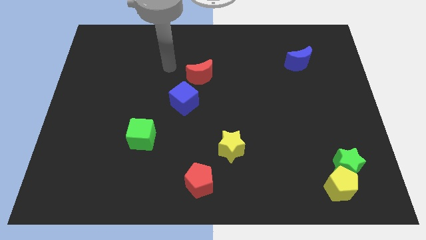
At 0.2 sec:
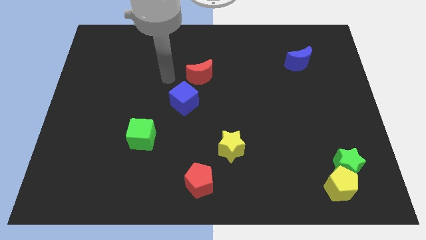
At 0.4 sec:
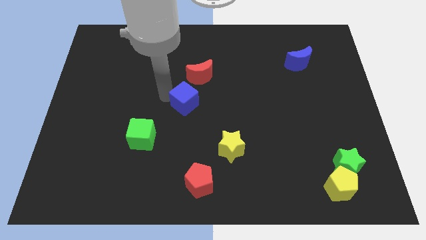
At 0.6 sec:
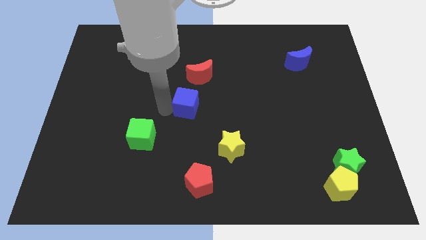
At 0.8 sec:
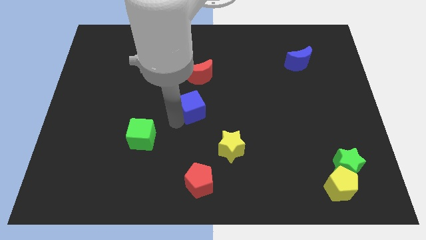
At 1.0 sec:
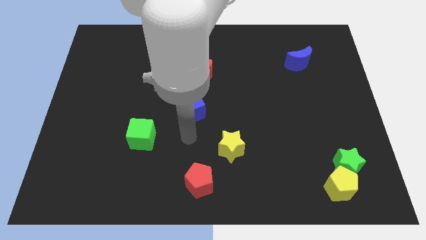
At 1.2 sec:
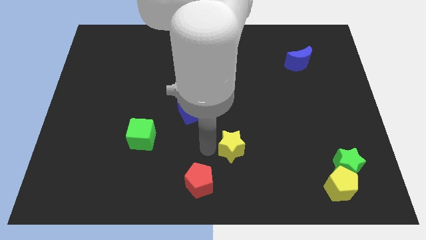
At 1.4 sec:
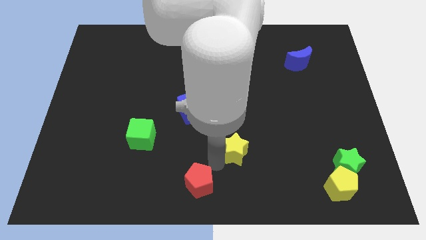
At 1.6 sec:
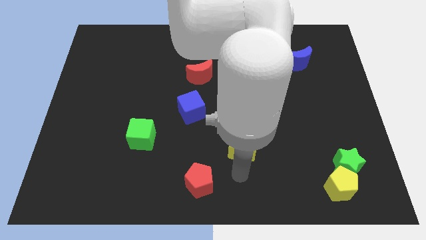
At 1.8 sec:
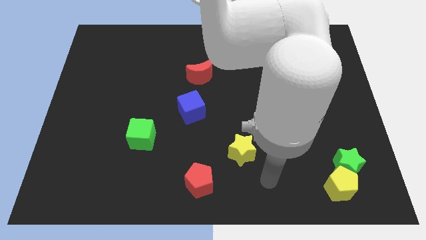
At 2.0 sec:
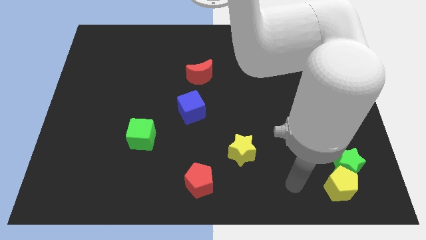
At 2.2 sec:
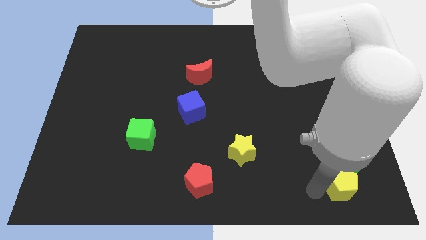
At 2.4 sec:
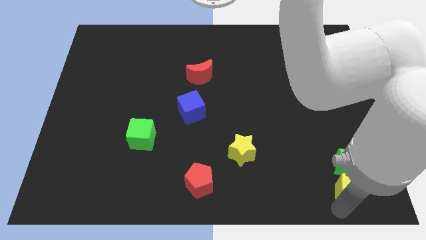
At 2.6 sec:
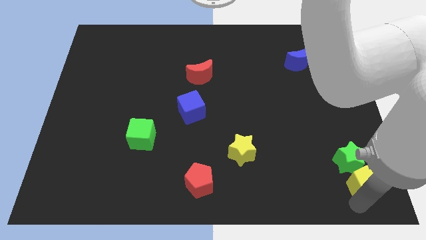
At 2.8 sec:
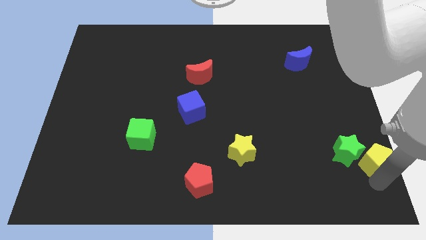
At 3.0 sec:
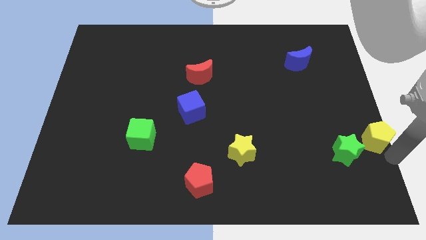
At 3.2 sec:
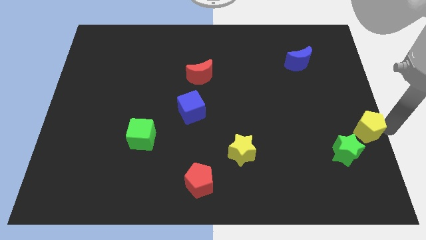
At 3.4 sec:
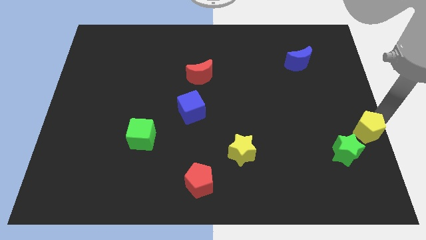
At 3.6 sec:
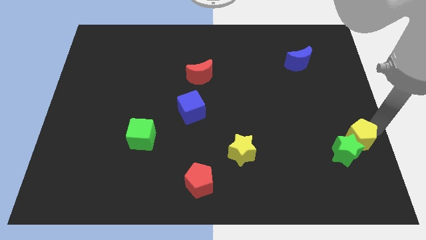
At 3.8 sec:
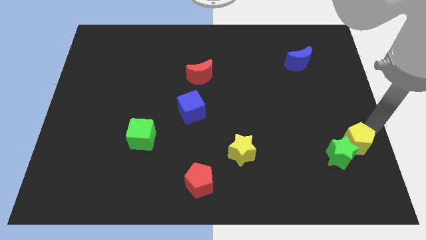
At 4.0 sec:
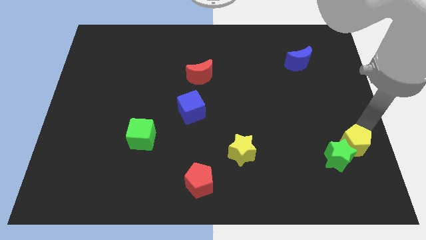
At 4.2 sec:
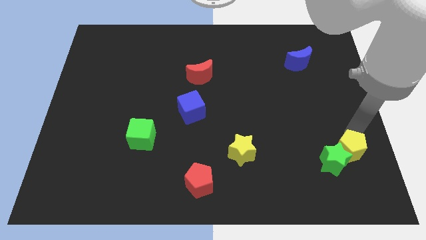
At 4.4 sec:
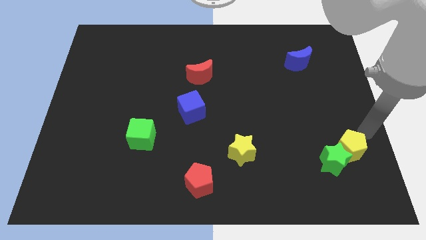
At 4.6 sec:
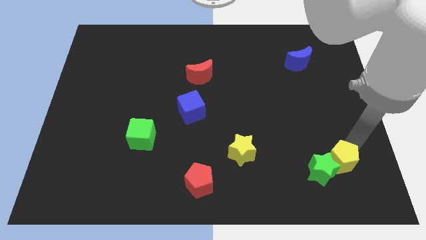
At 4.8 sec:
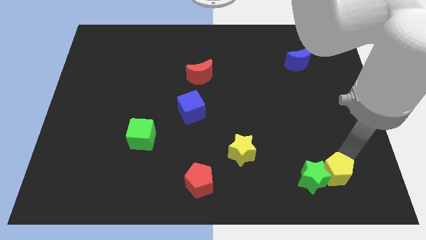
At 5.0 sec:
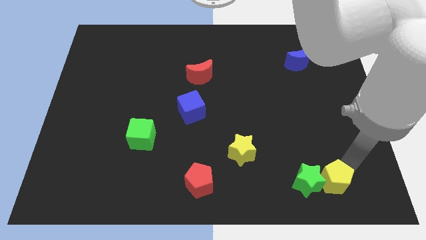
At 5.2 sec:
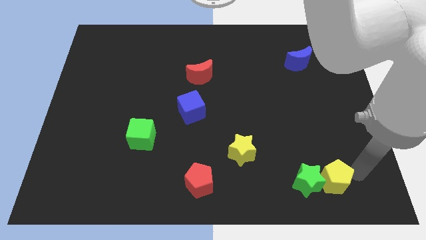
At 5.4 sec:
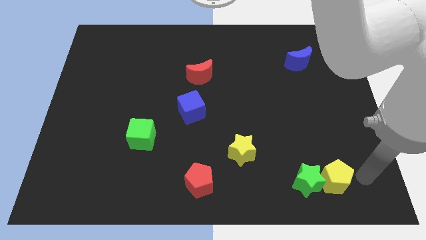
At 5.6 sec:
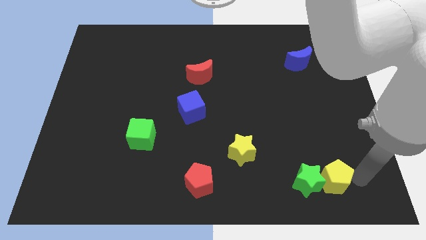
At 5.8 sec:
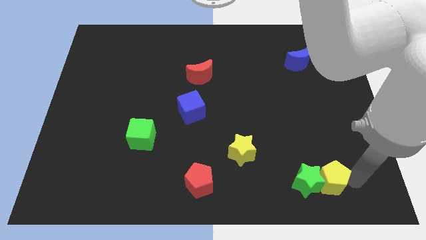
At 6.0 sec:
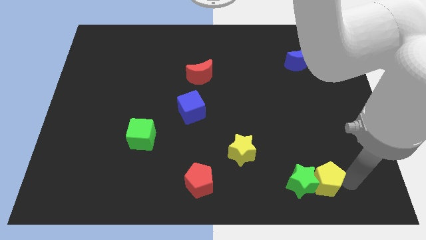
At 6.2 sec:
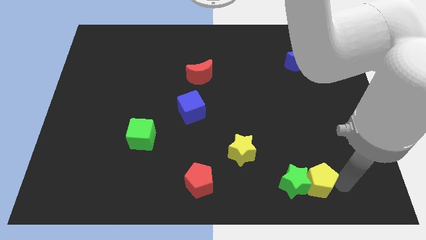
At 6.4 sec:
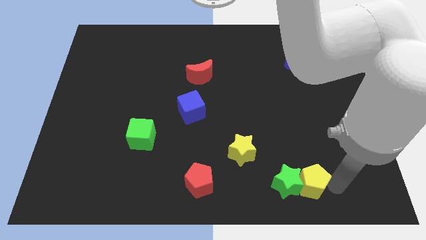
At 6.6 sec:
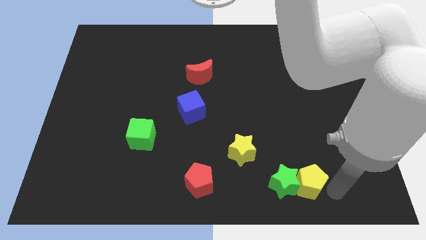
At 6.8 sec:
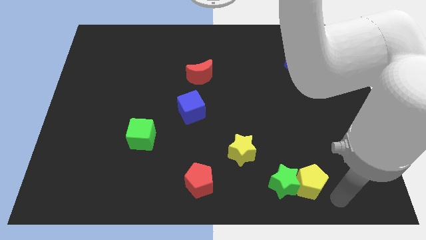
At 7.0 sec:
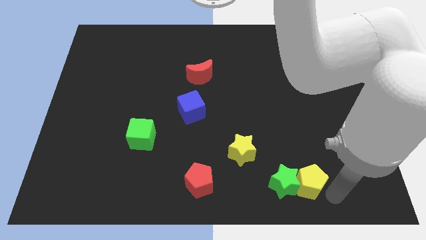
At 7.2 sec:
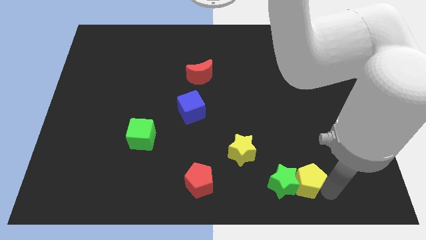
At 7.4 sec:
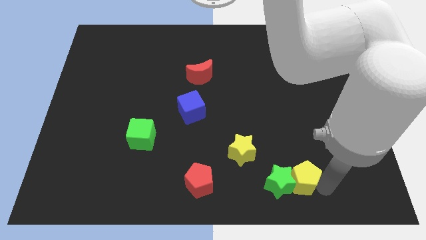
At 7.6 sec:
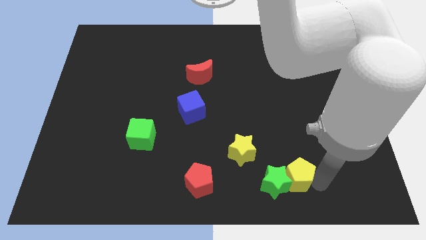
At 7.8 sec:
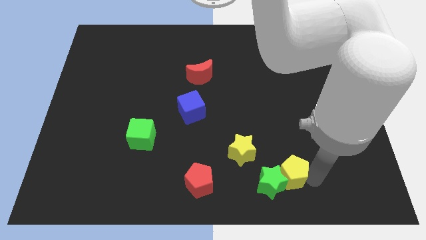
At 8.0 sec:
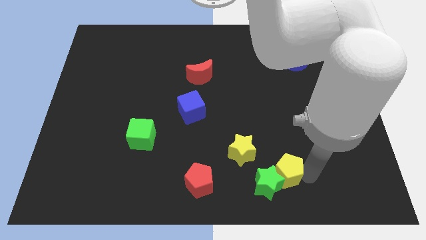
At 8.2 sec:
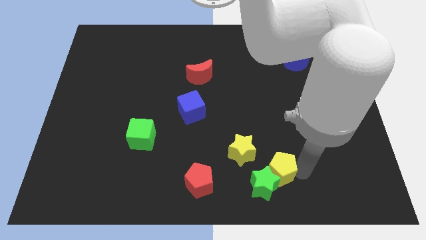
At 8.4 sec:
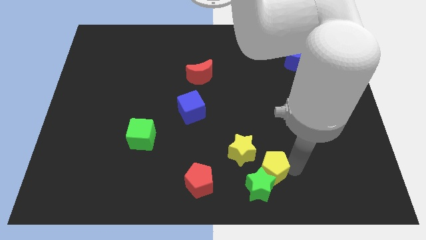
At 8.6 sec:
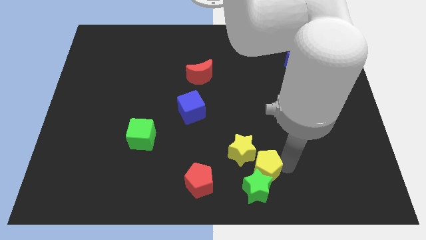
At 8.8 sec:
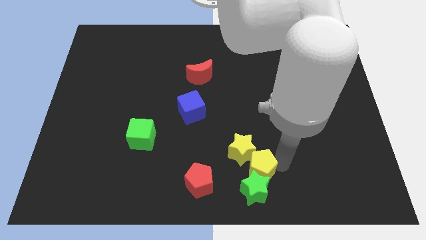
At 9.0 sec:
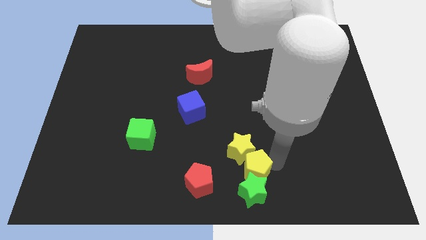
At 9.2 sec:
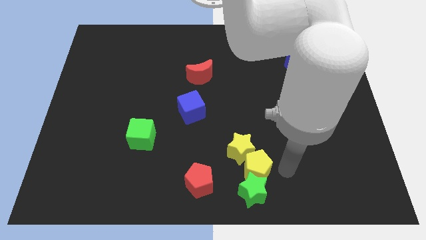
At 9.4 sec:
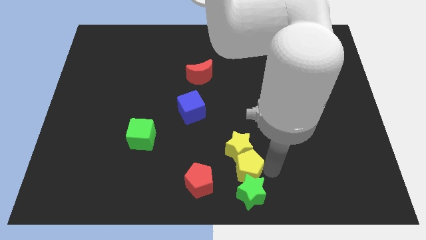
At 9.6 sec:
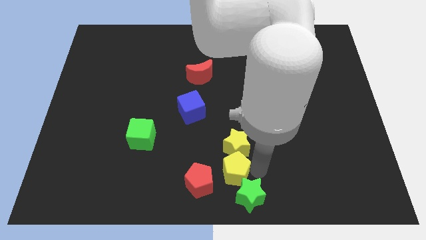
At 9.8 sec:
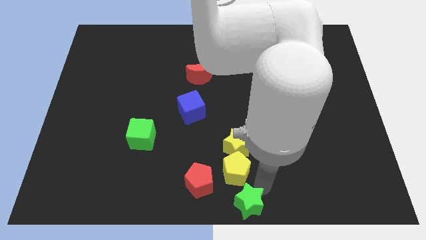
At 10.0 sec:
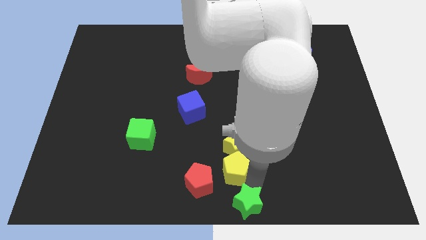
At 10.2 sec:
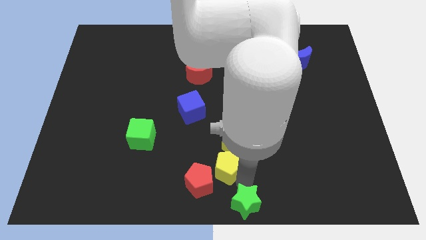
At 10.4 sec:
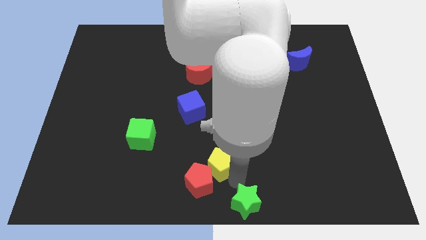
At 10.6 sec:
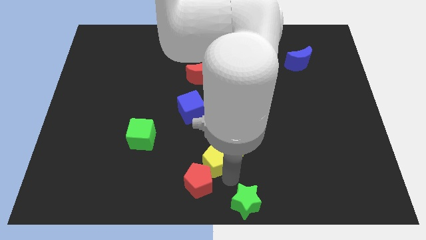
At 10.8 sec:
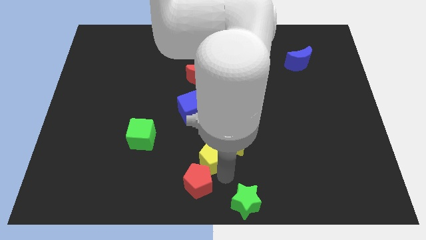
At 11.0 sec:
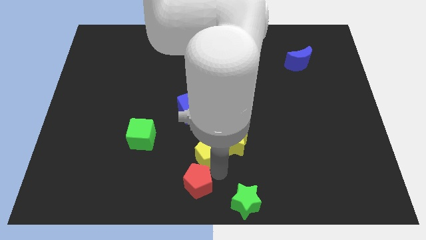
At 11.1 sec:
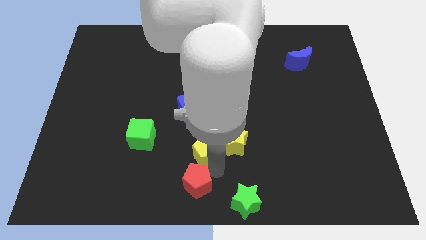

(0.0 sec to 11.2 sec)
move the yellow pentagon to the right of the green cube

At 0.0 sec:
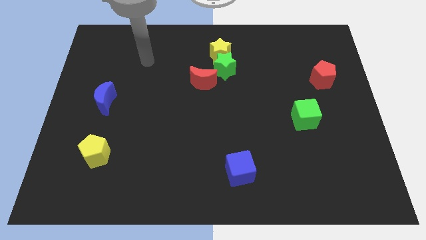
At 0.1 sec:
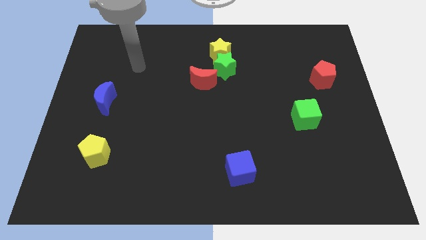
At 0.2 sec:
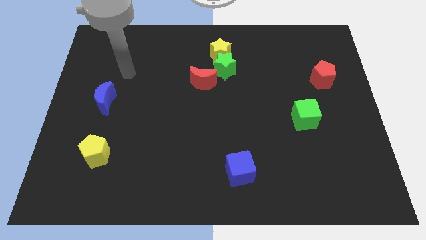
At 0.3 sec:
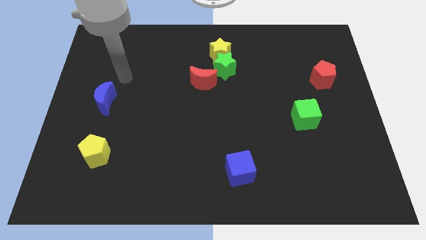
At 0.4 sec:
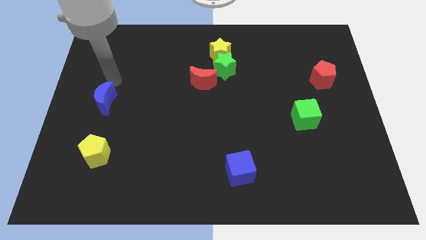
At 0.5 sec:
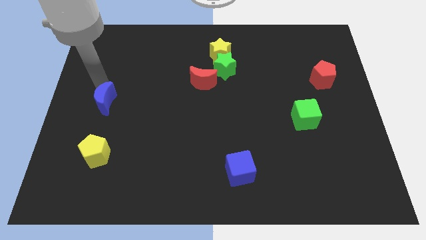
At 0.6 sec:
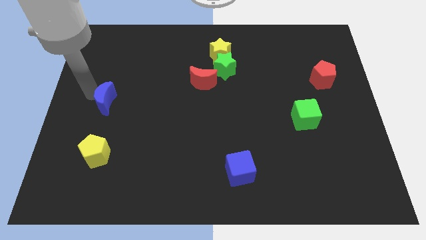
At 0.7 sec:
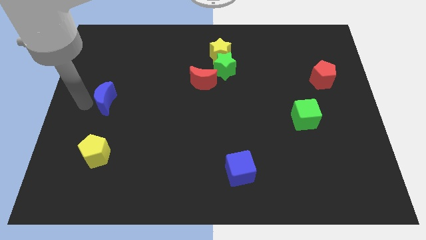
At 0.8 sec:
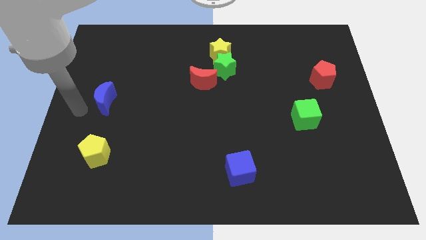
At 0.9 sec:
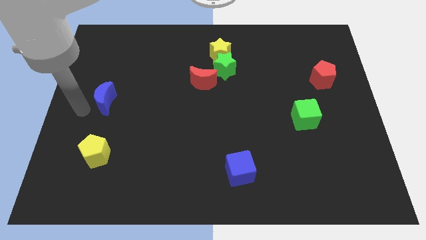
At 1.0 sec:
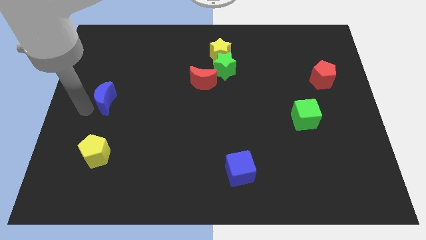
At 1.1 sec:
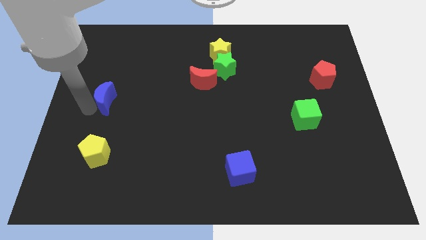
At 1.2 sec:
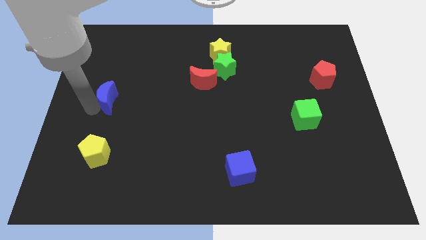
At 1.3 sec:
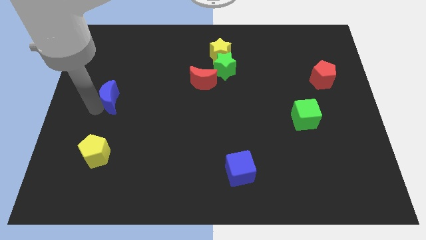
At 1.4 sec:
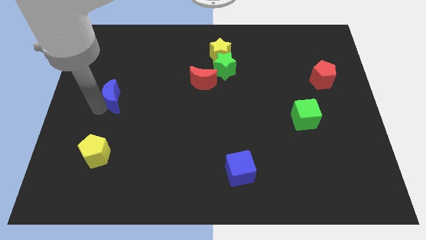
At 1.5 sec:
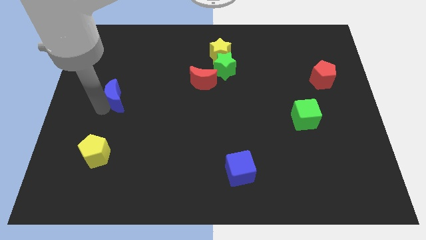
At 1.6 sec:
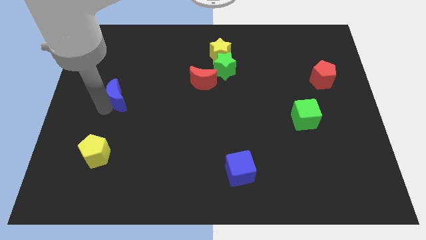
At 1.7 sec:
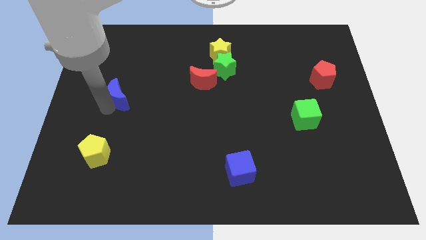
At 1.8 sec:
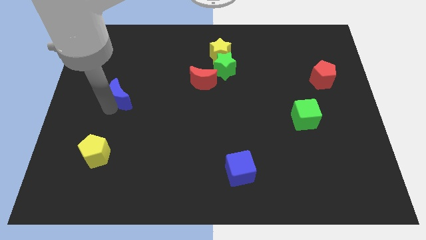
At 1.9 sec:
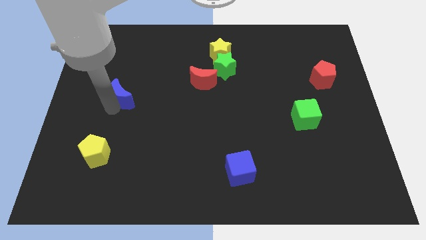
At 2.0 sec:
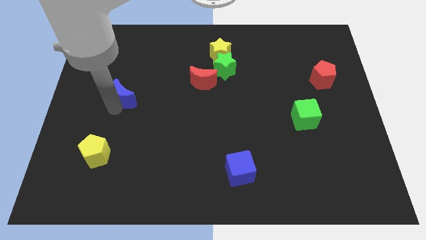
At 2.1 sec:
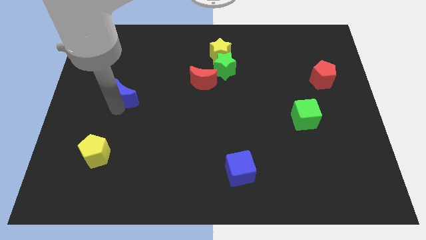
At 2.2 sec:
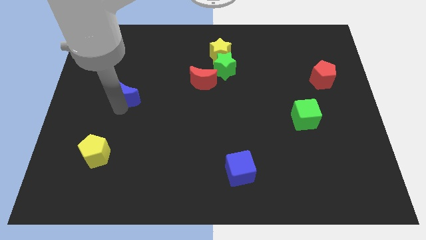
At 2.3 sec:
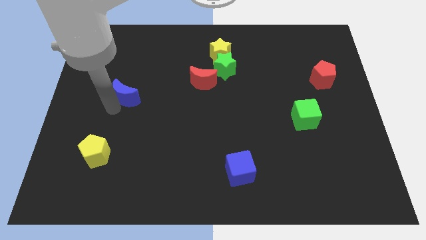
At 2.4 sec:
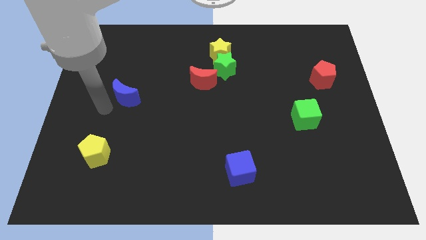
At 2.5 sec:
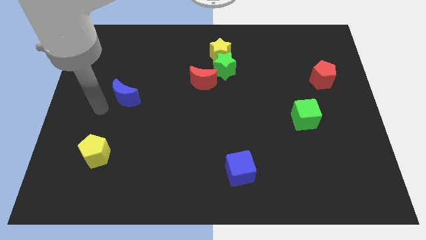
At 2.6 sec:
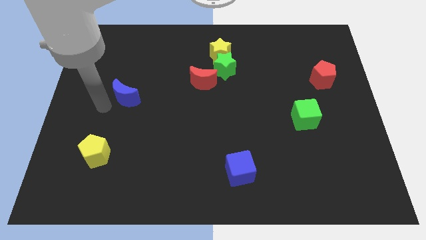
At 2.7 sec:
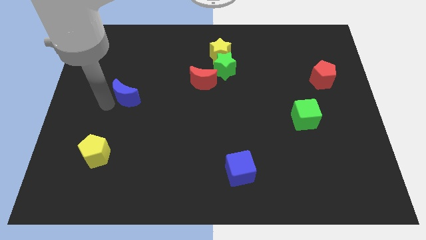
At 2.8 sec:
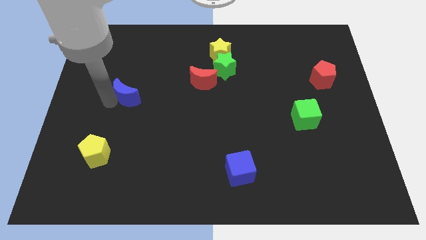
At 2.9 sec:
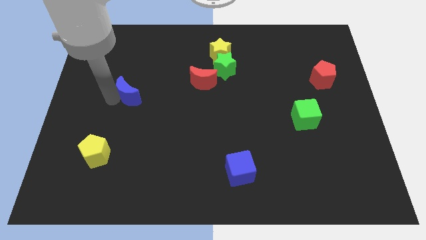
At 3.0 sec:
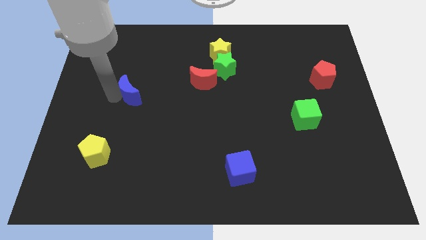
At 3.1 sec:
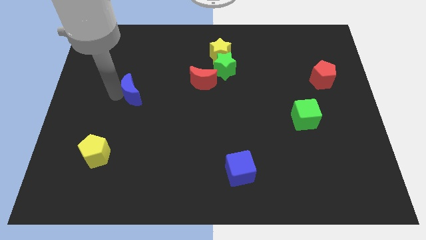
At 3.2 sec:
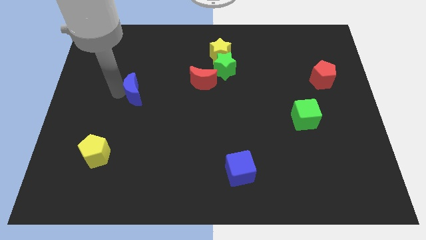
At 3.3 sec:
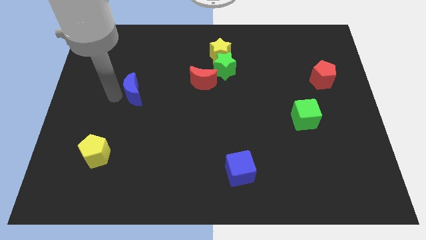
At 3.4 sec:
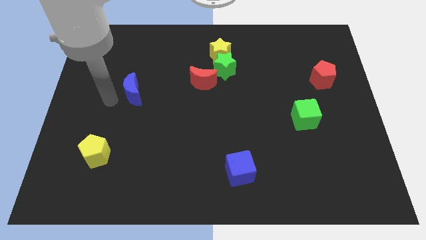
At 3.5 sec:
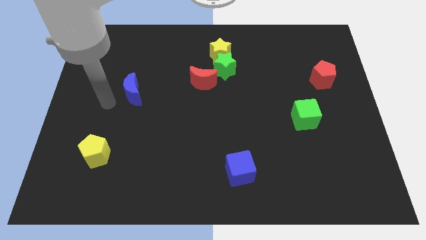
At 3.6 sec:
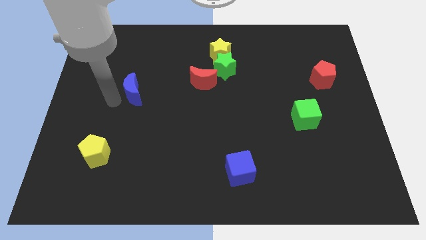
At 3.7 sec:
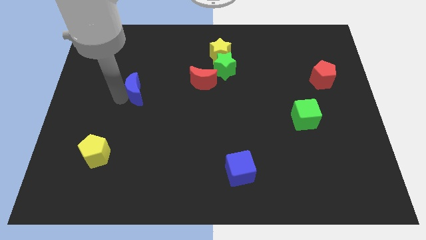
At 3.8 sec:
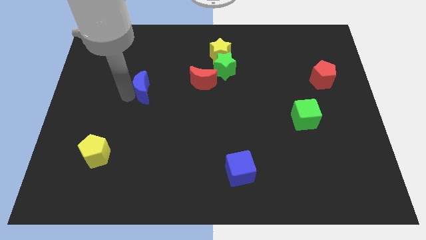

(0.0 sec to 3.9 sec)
move the blue moon just left of the red moon
